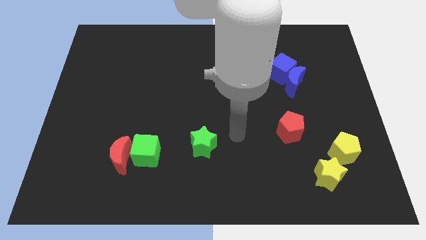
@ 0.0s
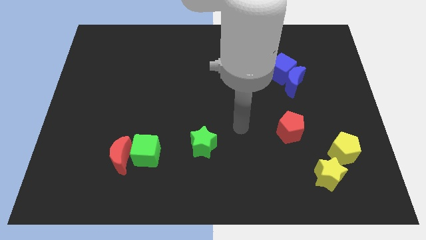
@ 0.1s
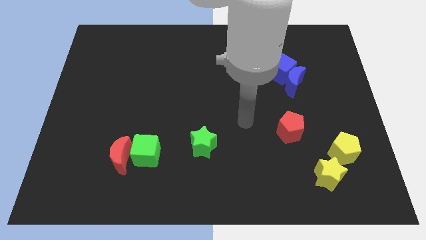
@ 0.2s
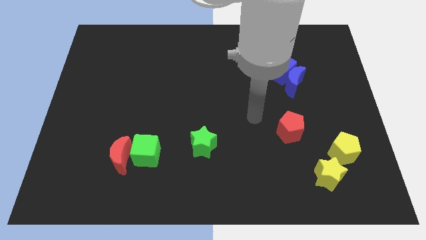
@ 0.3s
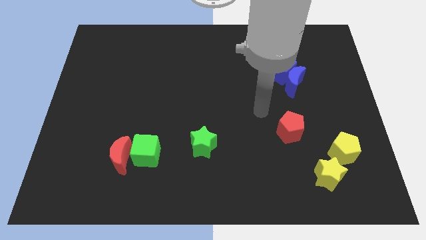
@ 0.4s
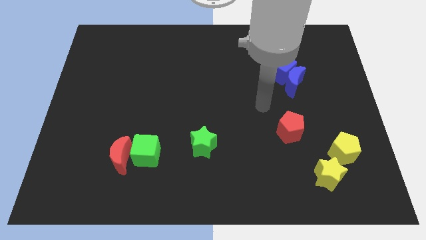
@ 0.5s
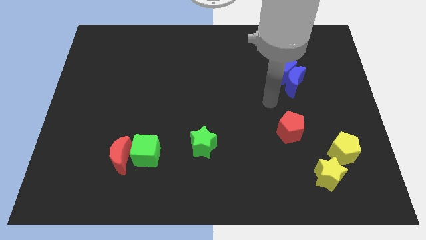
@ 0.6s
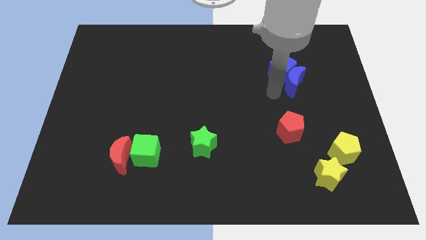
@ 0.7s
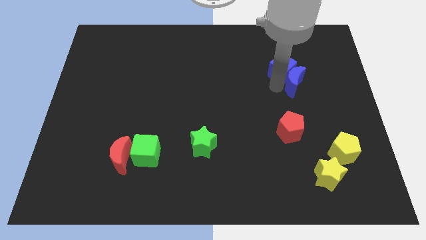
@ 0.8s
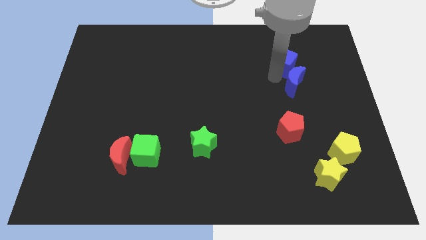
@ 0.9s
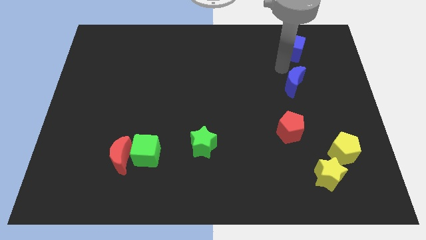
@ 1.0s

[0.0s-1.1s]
pull the blue moon apart from the blue cube

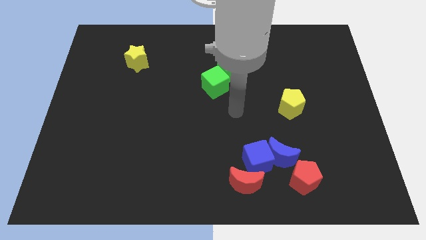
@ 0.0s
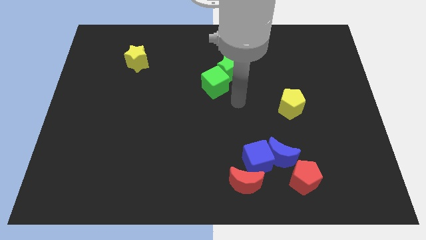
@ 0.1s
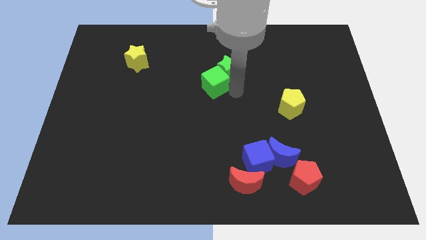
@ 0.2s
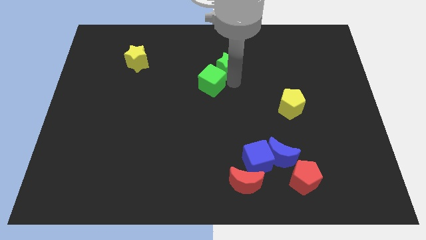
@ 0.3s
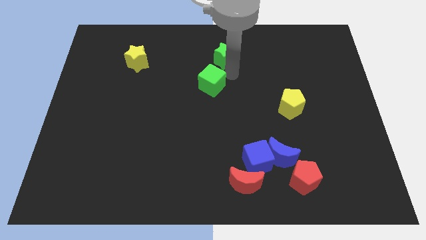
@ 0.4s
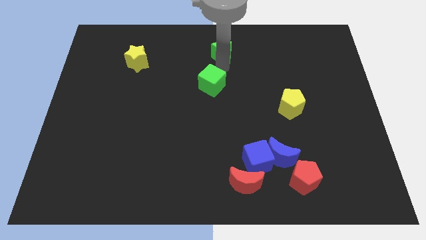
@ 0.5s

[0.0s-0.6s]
pull the green cube apart from the green star

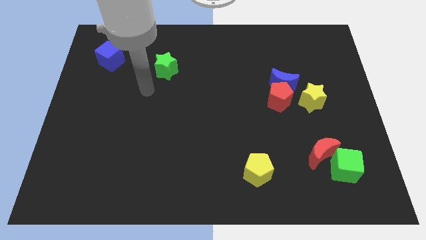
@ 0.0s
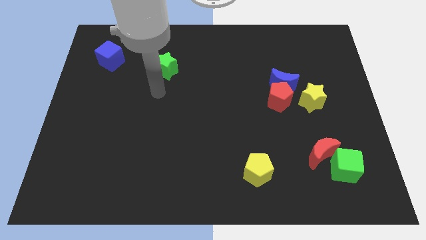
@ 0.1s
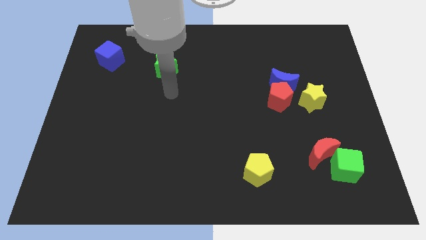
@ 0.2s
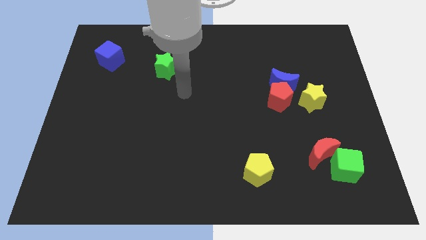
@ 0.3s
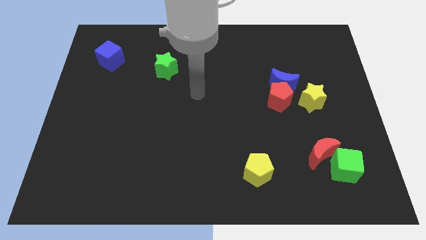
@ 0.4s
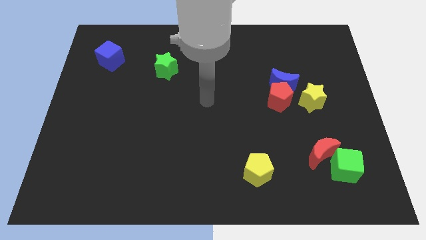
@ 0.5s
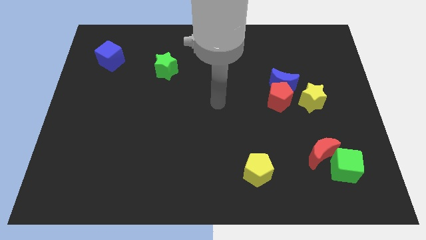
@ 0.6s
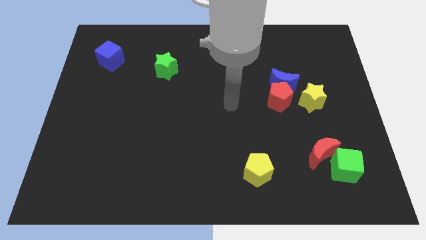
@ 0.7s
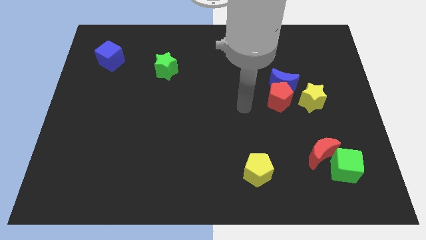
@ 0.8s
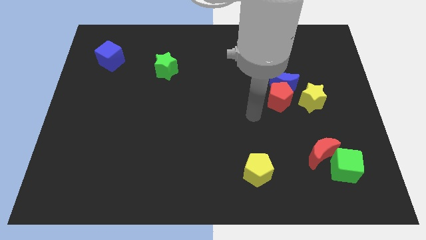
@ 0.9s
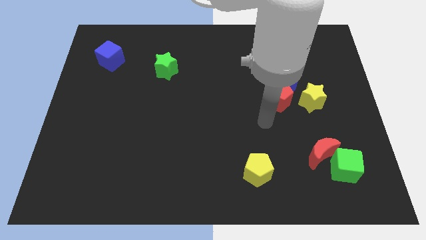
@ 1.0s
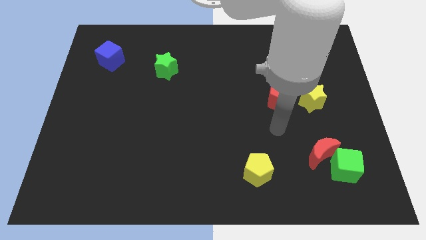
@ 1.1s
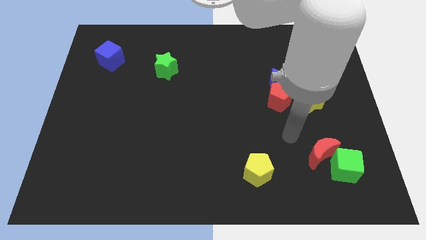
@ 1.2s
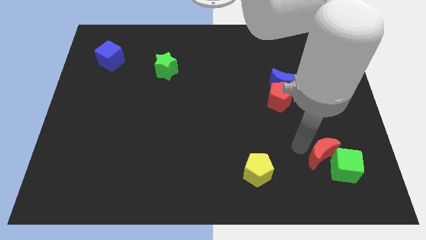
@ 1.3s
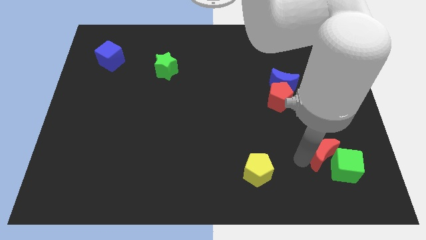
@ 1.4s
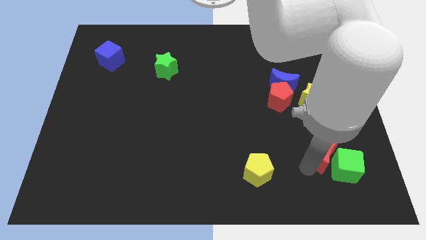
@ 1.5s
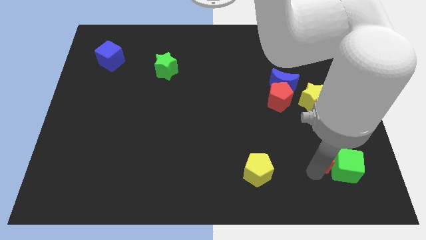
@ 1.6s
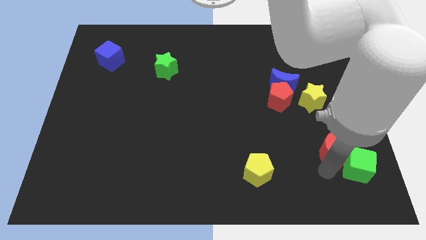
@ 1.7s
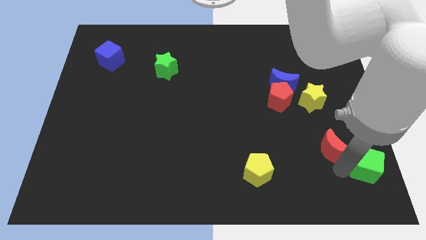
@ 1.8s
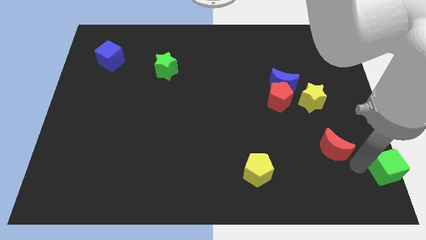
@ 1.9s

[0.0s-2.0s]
pull the red moon apart from the green cube

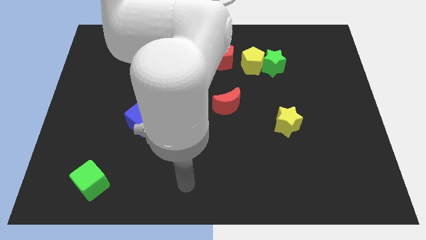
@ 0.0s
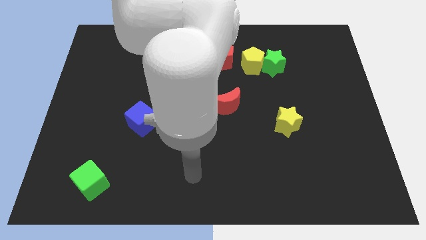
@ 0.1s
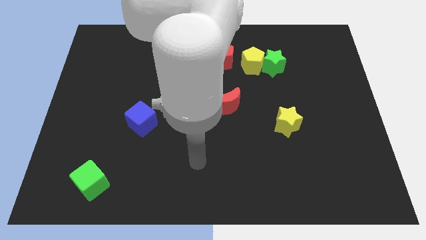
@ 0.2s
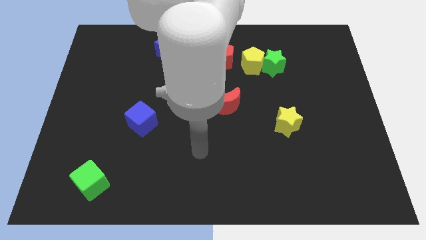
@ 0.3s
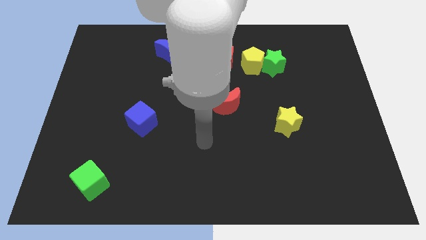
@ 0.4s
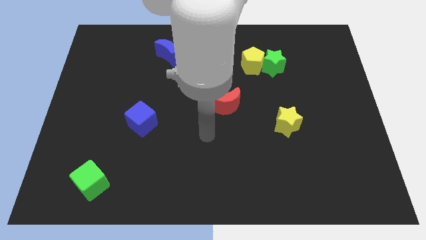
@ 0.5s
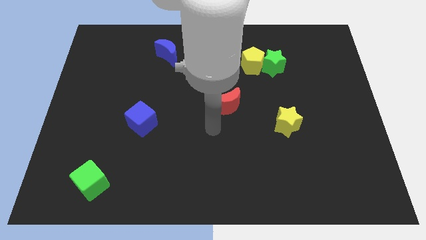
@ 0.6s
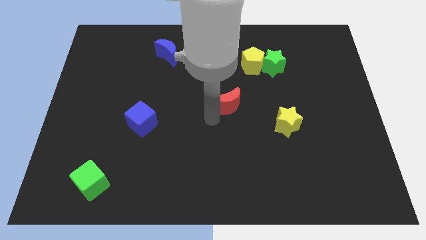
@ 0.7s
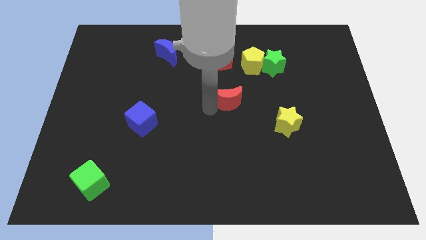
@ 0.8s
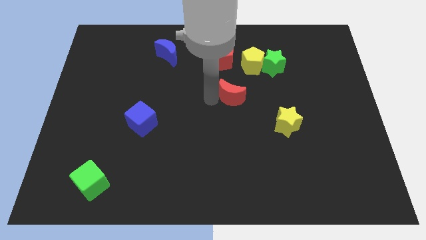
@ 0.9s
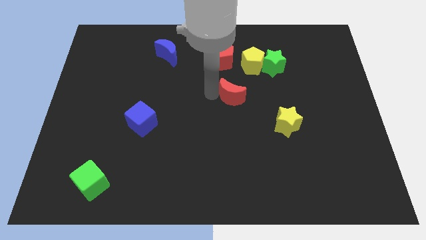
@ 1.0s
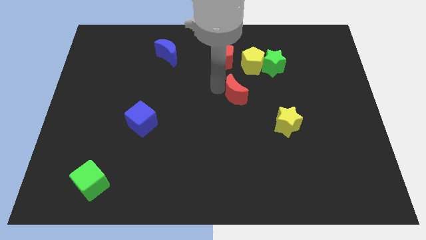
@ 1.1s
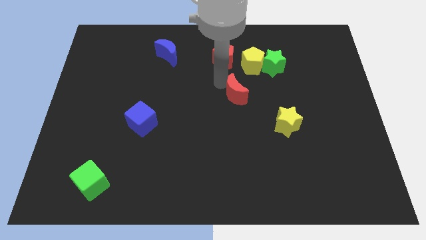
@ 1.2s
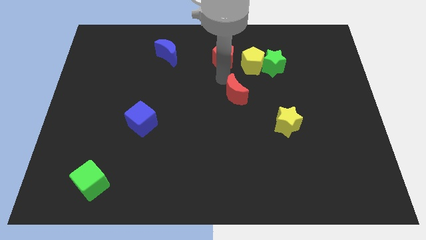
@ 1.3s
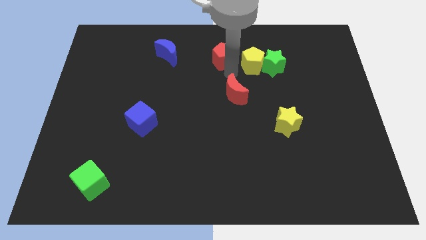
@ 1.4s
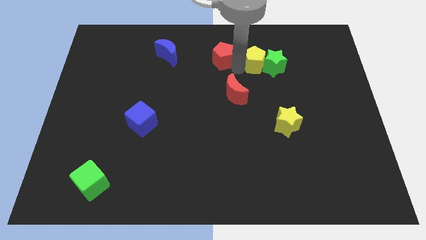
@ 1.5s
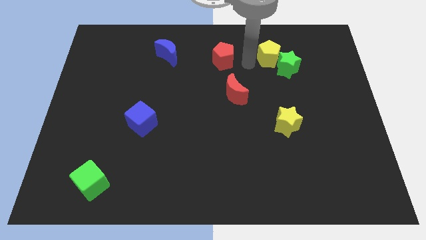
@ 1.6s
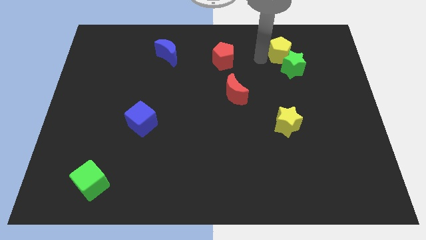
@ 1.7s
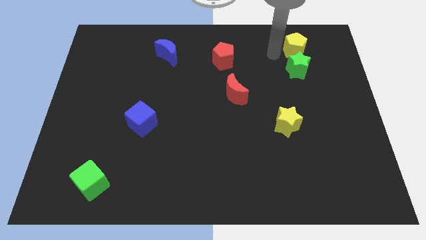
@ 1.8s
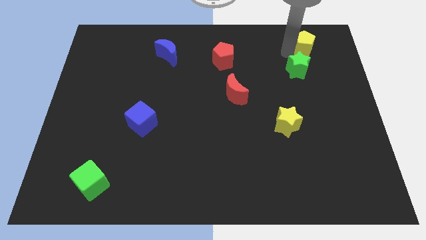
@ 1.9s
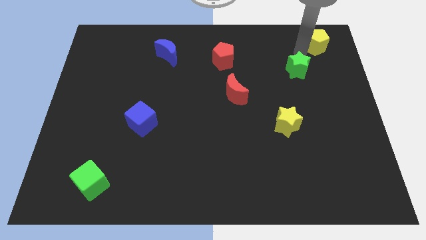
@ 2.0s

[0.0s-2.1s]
move the green star away from the yellow pentagon

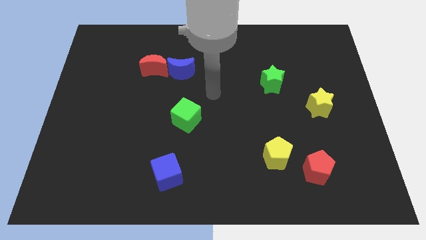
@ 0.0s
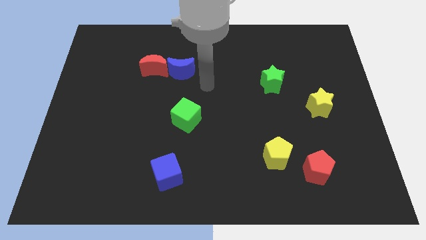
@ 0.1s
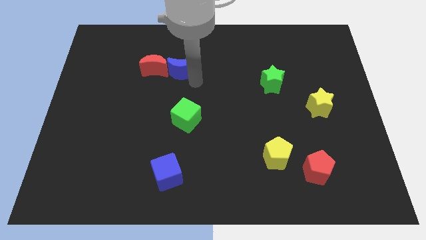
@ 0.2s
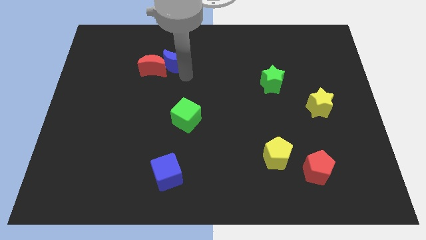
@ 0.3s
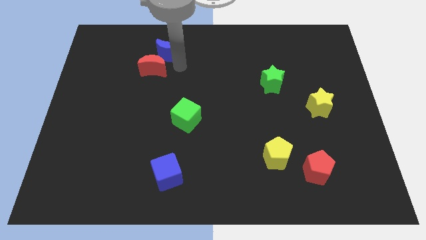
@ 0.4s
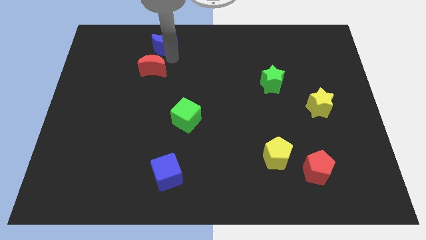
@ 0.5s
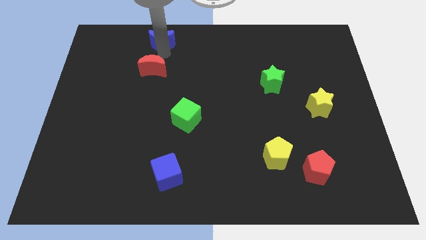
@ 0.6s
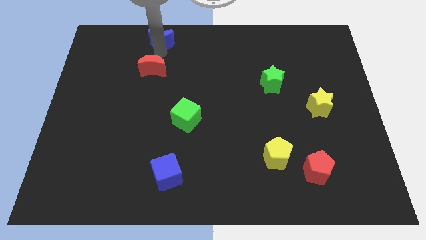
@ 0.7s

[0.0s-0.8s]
separate the red moon from the blue moon

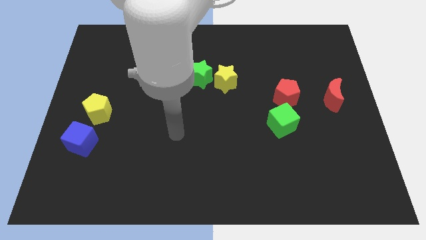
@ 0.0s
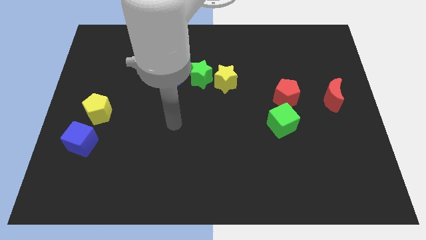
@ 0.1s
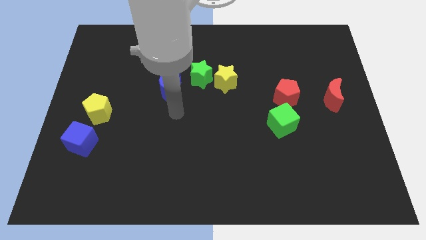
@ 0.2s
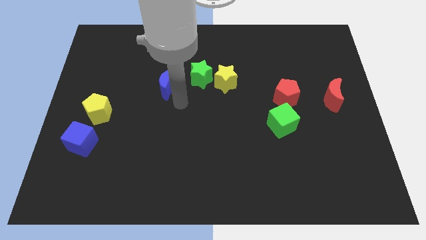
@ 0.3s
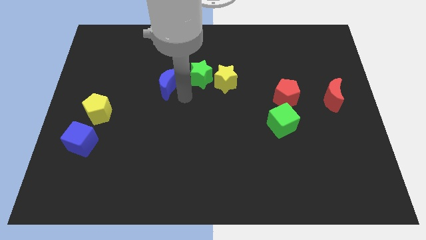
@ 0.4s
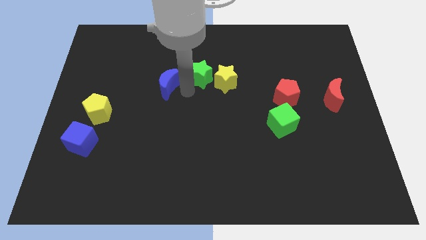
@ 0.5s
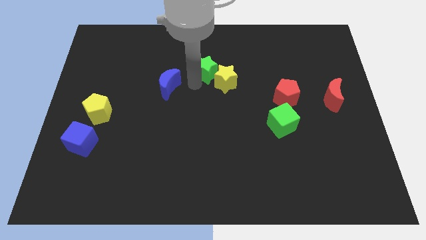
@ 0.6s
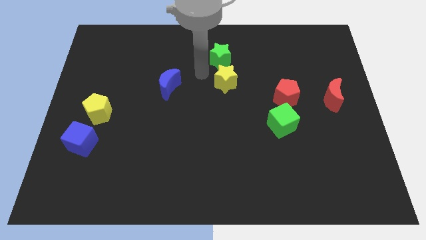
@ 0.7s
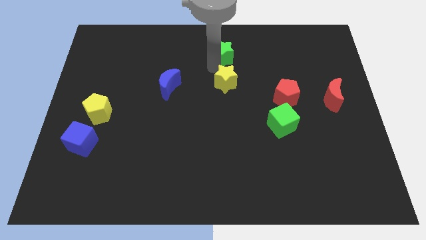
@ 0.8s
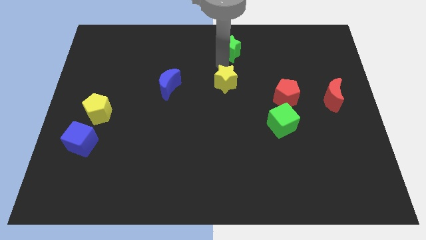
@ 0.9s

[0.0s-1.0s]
separate the yellow star from the green star

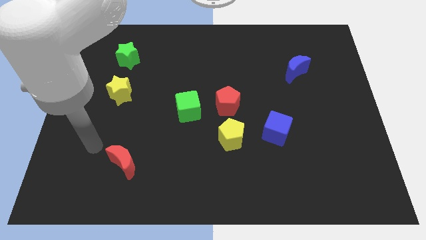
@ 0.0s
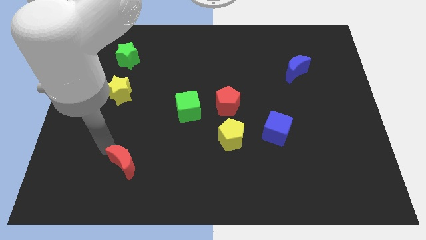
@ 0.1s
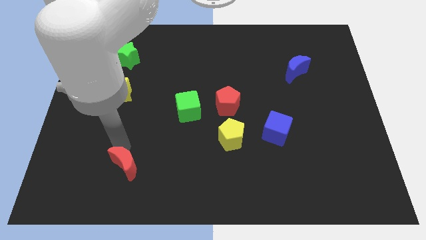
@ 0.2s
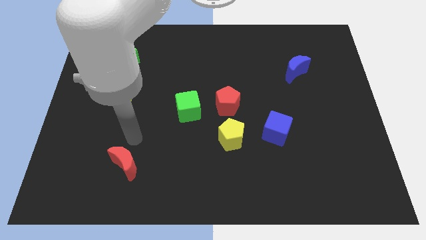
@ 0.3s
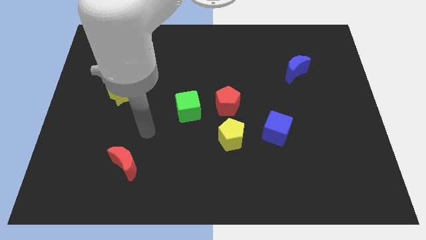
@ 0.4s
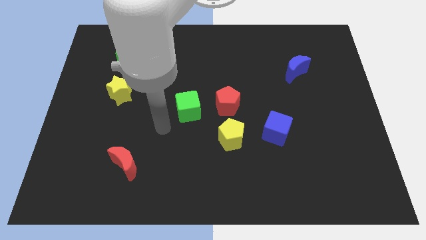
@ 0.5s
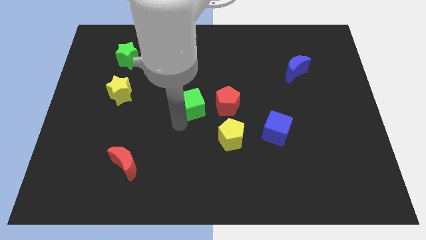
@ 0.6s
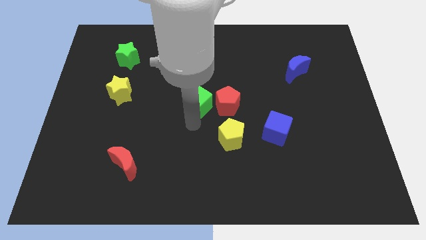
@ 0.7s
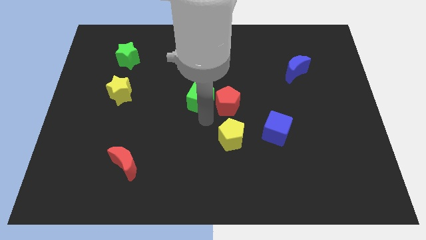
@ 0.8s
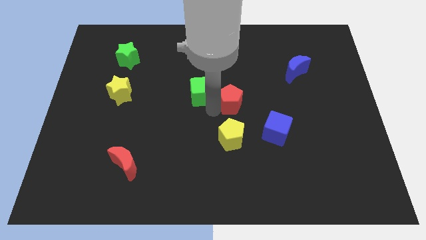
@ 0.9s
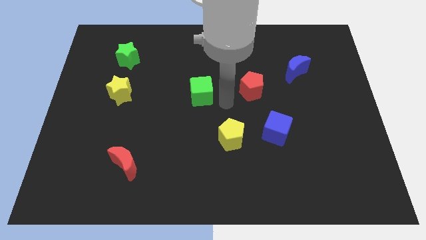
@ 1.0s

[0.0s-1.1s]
pull the green cube apart from the red pentagon

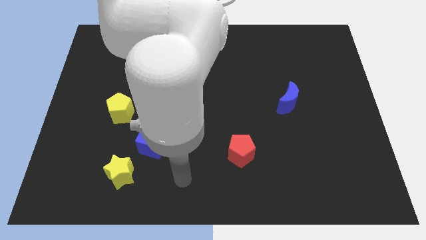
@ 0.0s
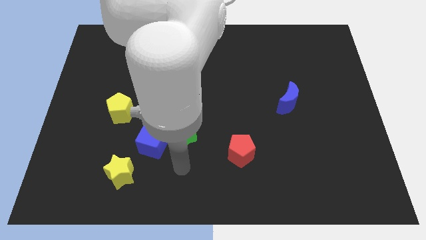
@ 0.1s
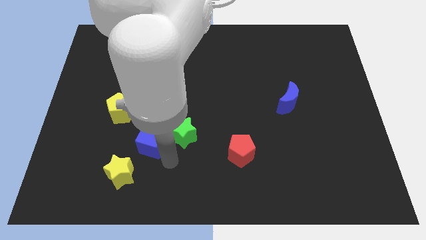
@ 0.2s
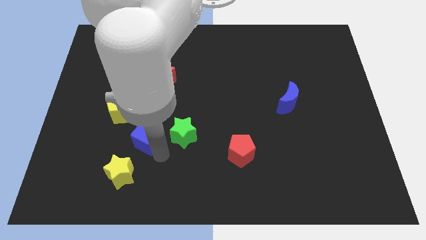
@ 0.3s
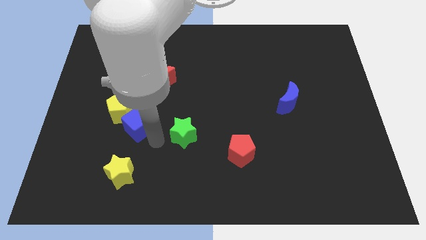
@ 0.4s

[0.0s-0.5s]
move the green star away from the blue cube

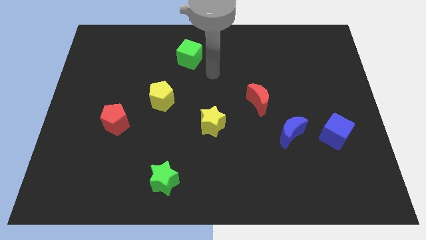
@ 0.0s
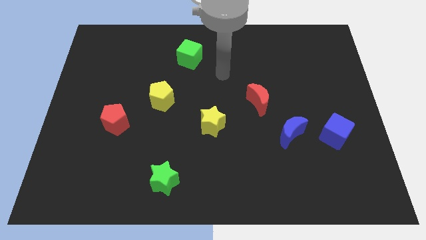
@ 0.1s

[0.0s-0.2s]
separate the blue moon from the blue cube

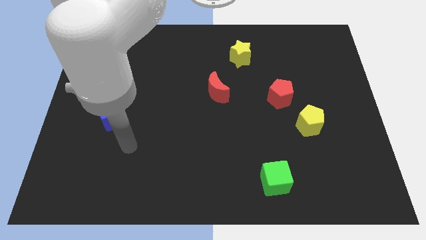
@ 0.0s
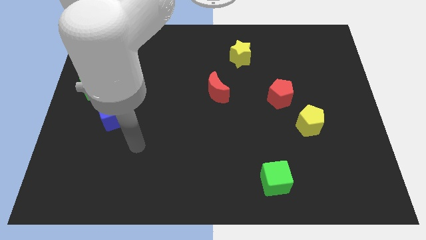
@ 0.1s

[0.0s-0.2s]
pull the red pentagon apart from the yellow pentagon
